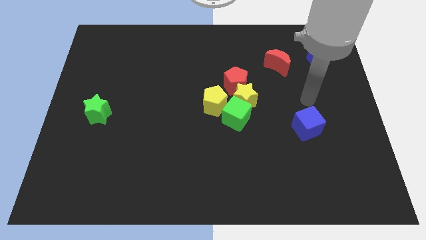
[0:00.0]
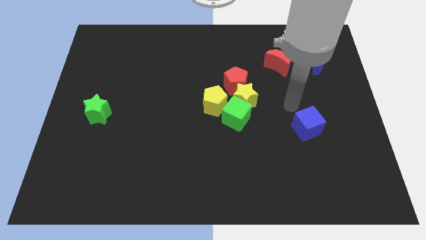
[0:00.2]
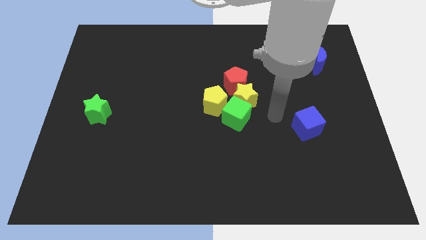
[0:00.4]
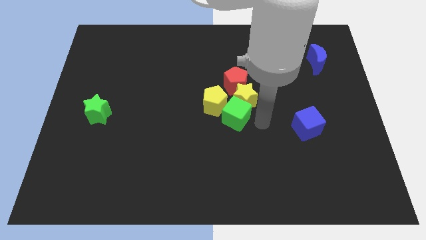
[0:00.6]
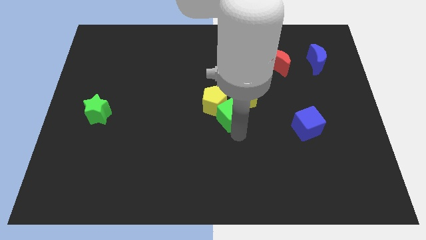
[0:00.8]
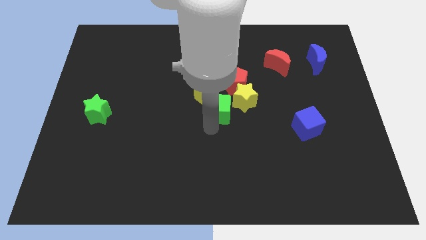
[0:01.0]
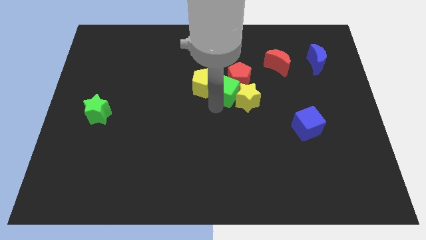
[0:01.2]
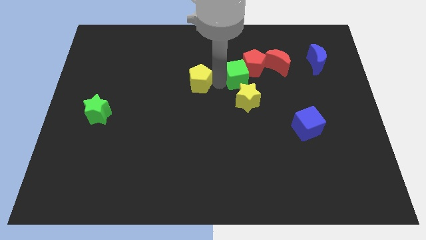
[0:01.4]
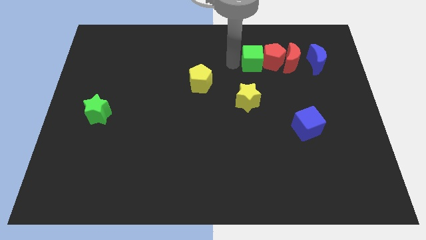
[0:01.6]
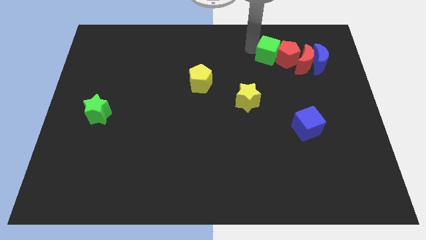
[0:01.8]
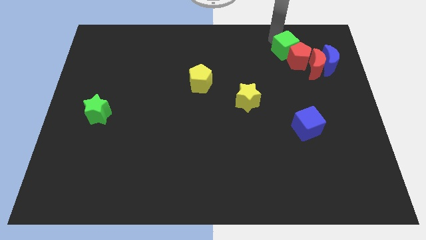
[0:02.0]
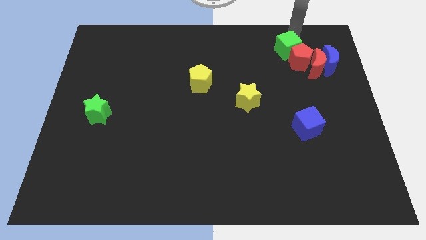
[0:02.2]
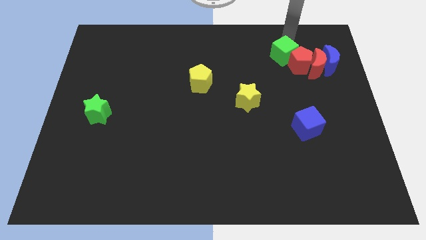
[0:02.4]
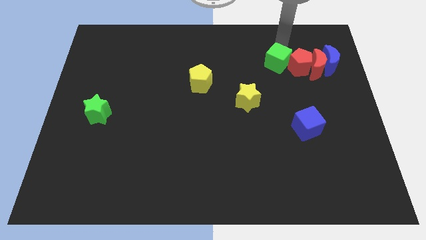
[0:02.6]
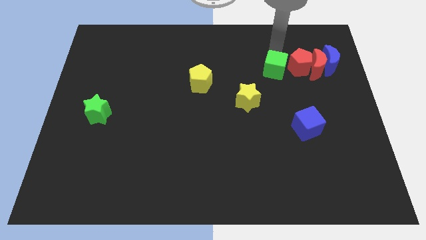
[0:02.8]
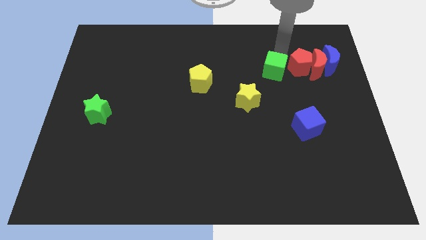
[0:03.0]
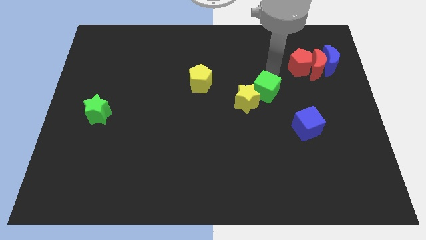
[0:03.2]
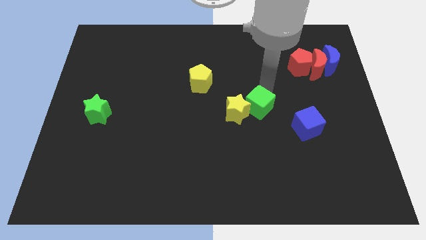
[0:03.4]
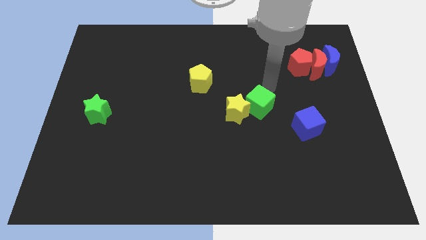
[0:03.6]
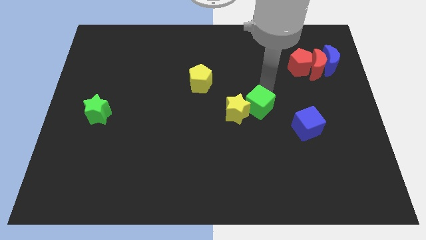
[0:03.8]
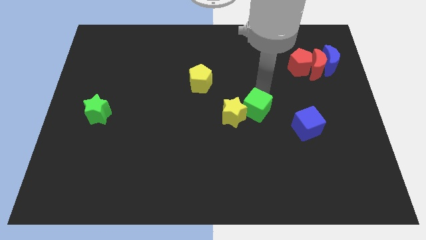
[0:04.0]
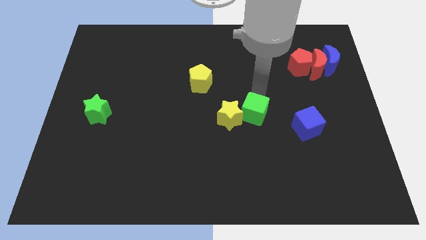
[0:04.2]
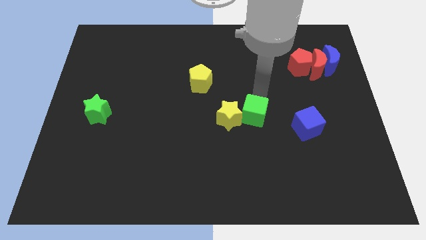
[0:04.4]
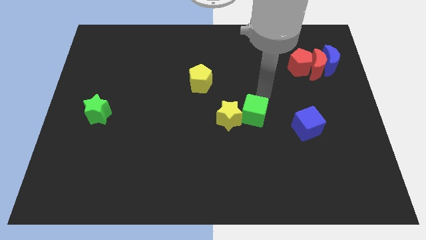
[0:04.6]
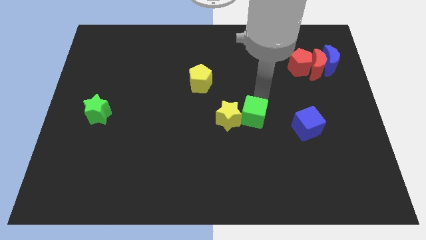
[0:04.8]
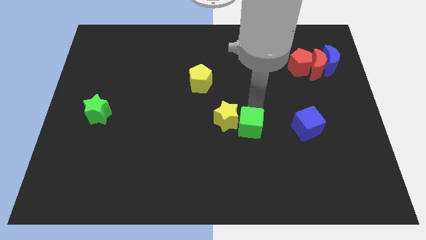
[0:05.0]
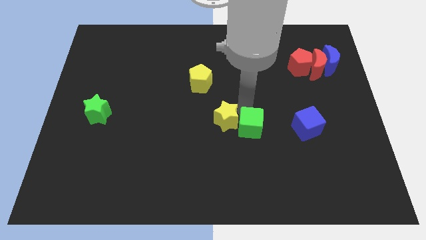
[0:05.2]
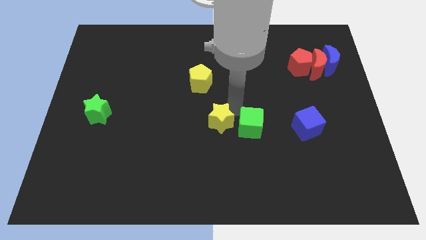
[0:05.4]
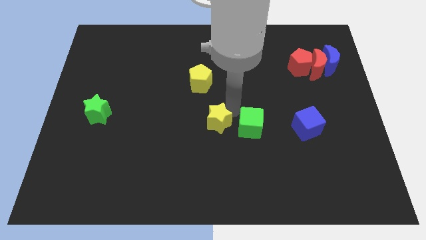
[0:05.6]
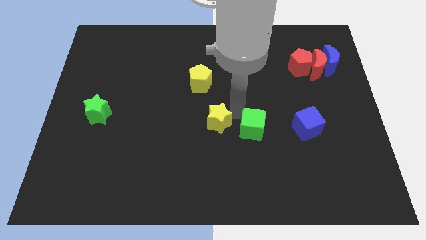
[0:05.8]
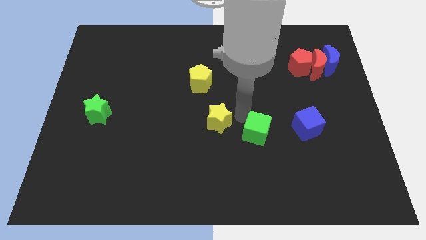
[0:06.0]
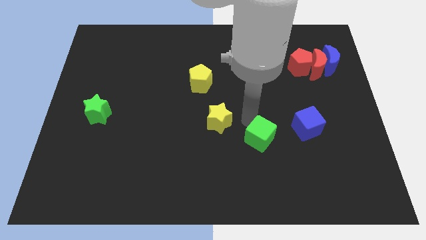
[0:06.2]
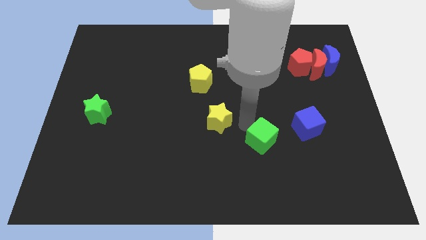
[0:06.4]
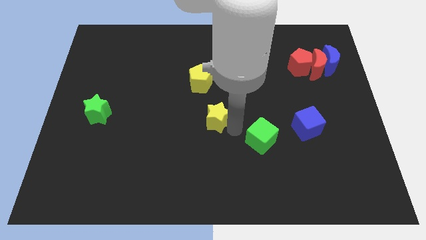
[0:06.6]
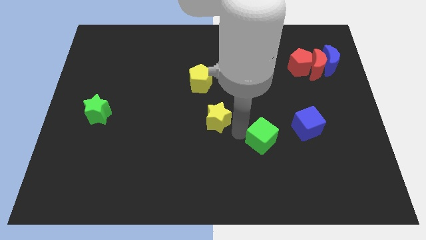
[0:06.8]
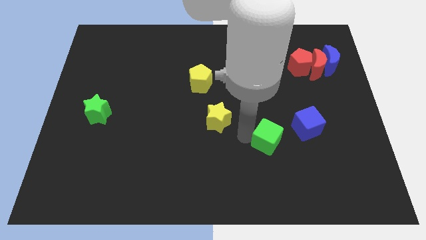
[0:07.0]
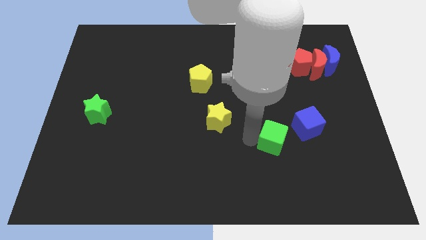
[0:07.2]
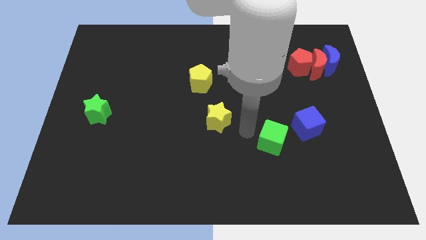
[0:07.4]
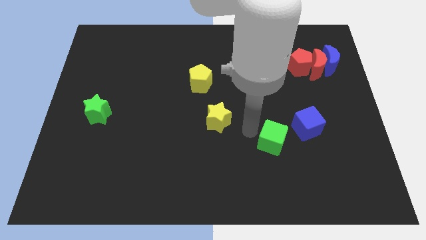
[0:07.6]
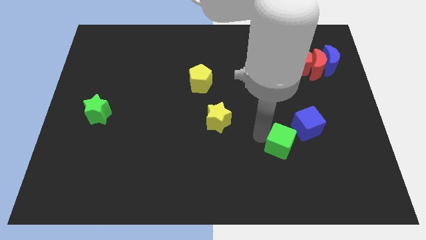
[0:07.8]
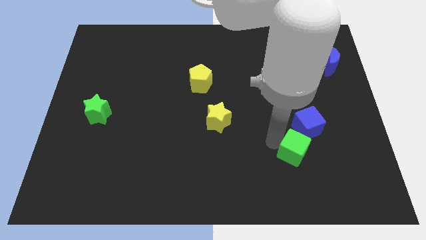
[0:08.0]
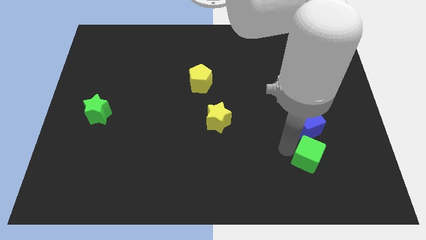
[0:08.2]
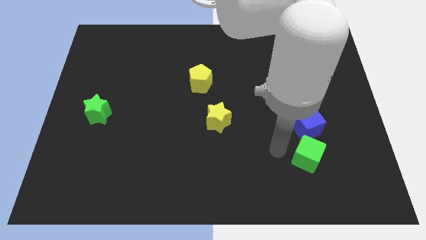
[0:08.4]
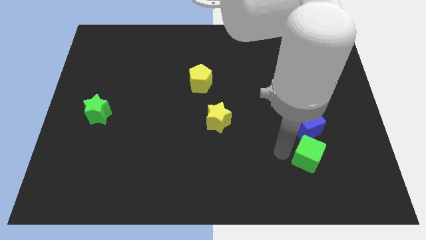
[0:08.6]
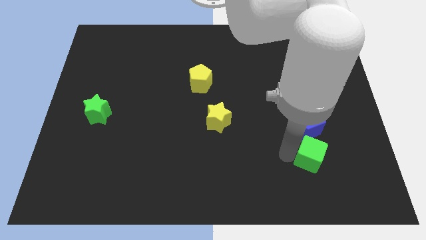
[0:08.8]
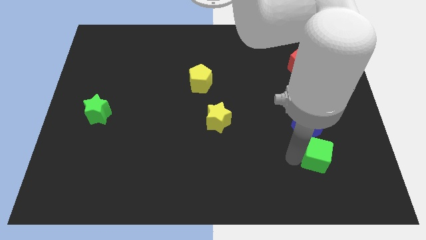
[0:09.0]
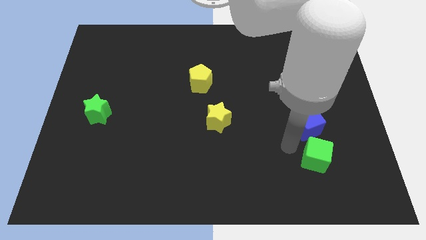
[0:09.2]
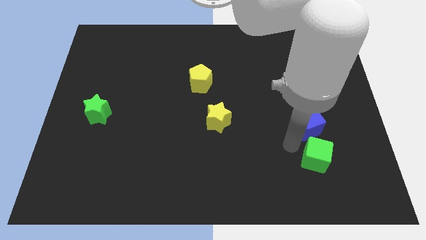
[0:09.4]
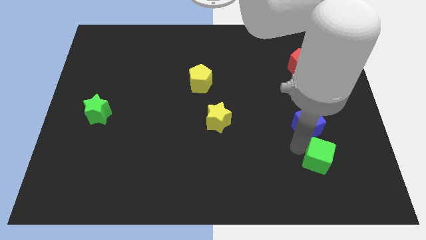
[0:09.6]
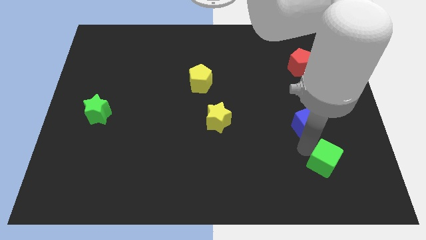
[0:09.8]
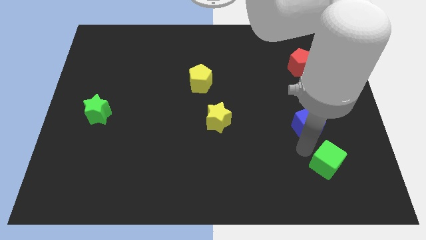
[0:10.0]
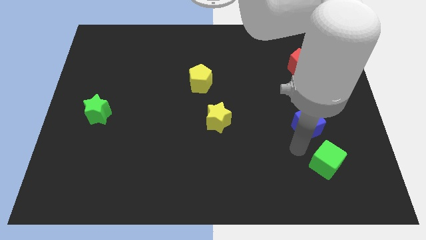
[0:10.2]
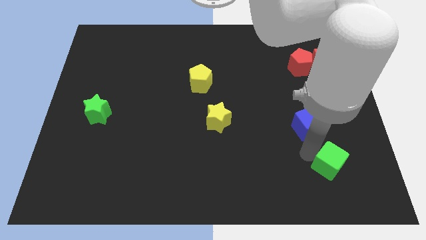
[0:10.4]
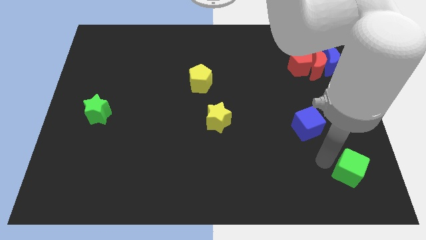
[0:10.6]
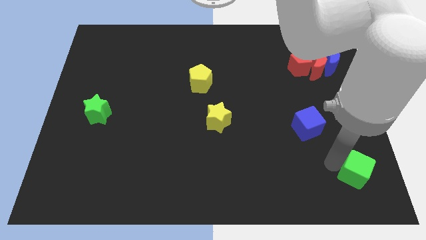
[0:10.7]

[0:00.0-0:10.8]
put the green cube to the lower right corner

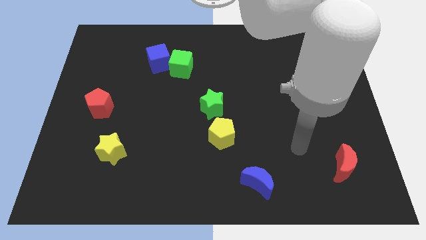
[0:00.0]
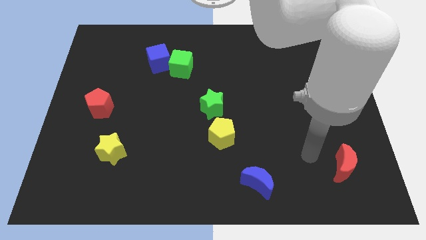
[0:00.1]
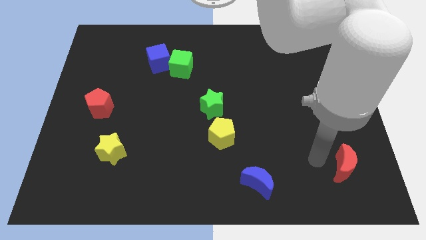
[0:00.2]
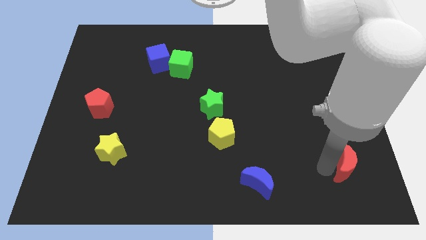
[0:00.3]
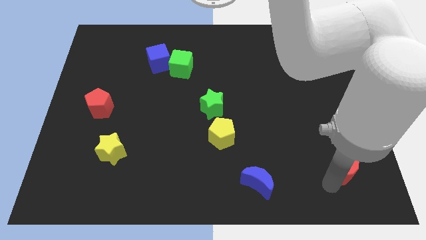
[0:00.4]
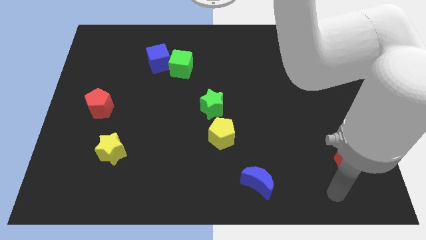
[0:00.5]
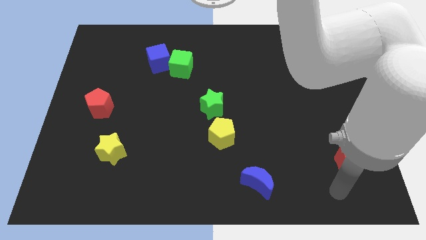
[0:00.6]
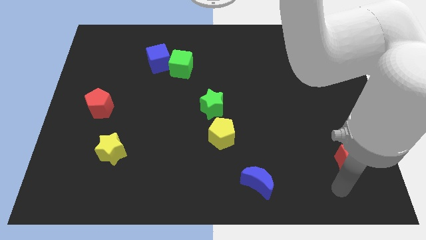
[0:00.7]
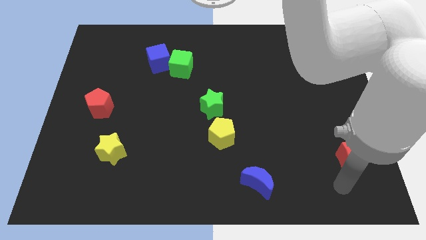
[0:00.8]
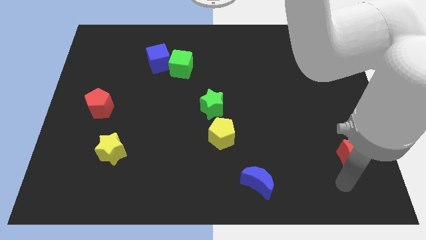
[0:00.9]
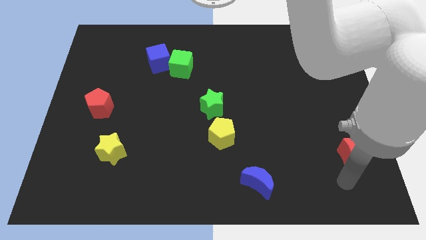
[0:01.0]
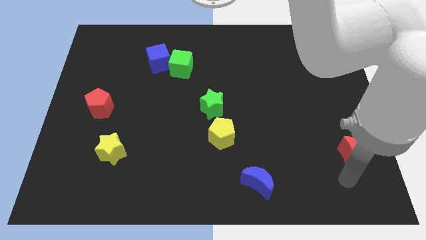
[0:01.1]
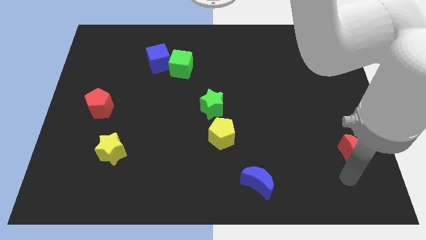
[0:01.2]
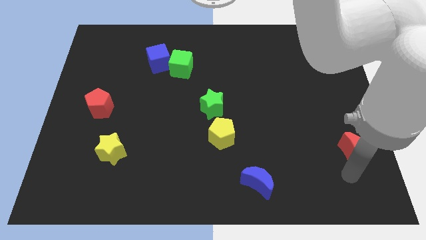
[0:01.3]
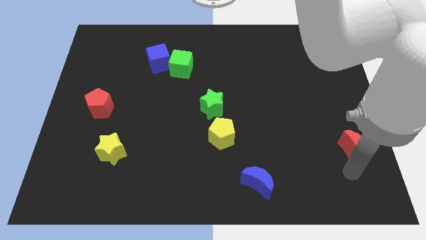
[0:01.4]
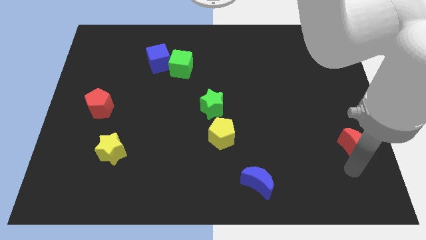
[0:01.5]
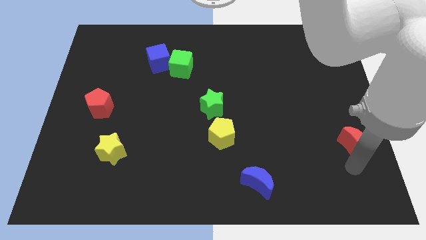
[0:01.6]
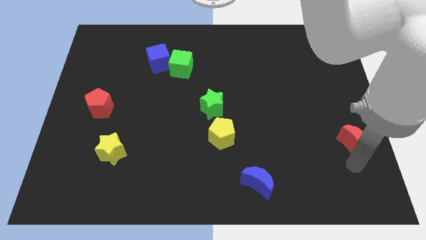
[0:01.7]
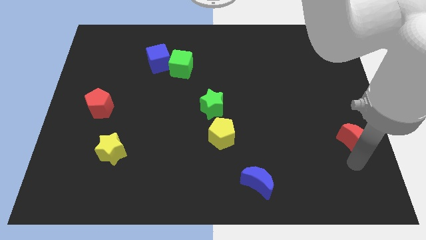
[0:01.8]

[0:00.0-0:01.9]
put the red moon to the right side

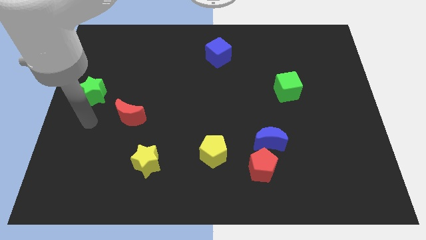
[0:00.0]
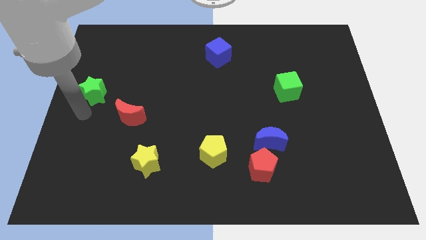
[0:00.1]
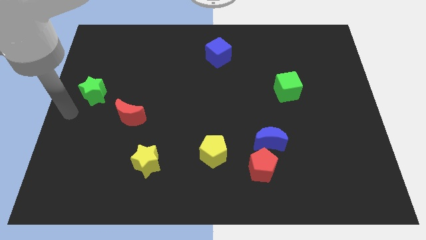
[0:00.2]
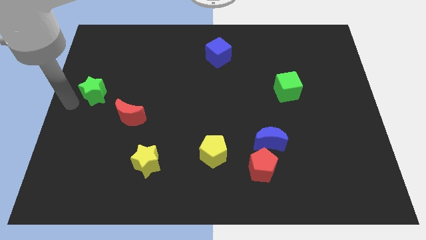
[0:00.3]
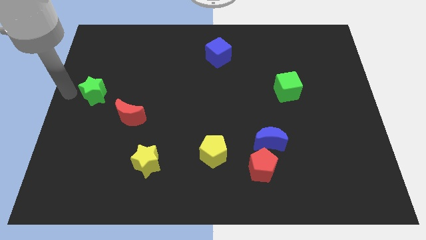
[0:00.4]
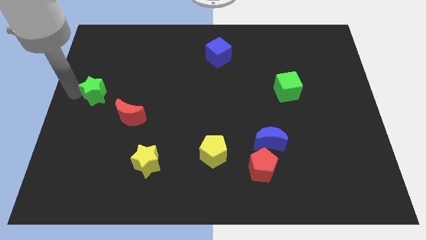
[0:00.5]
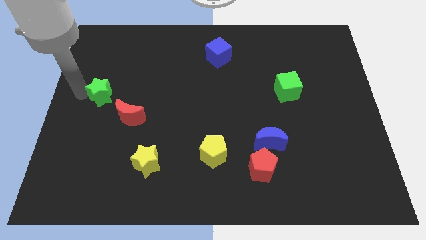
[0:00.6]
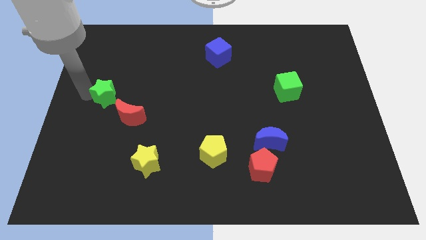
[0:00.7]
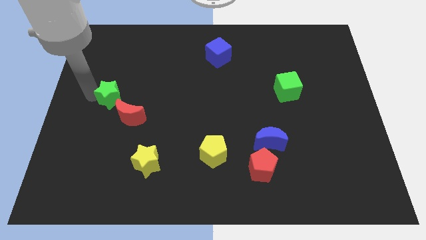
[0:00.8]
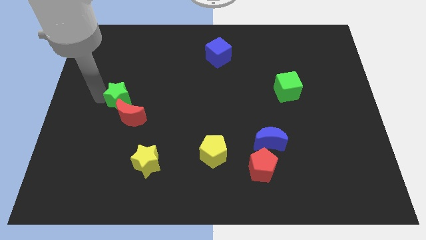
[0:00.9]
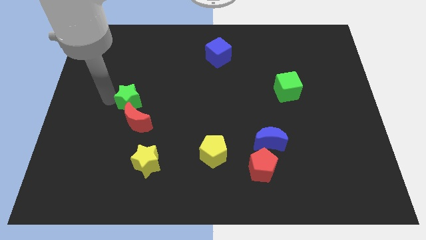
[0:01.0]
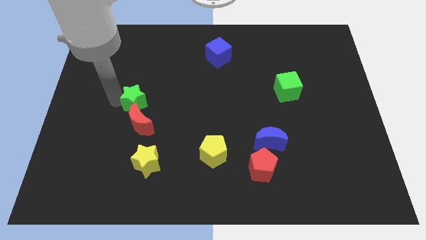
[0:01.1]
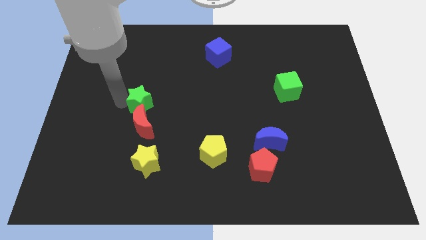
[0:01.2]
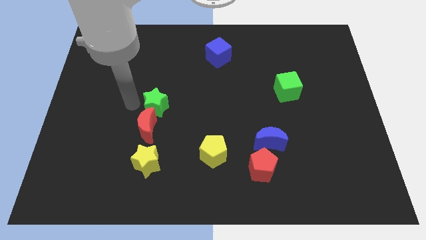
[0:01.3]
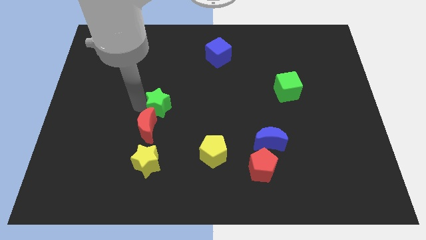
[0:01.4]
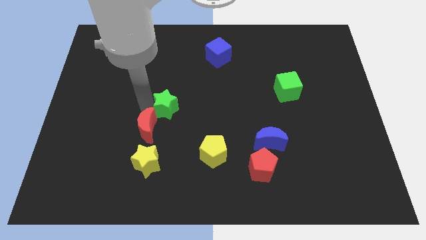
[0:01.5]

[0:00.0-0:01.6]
slide the green star to the middle of the board
